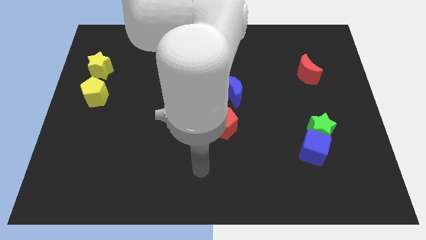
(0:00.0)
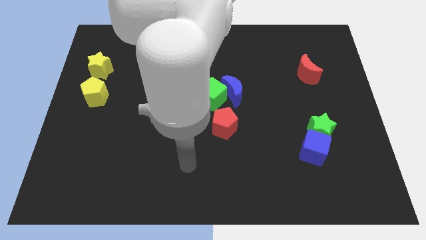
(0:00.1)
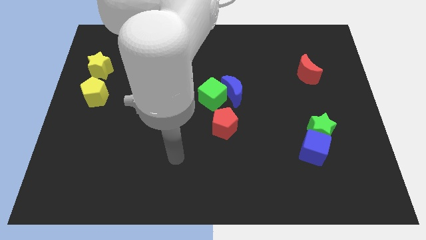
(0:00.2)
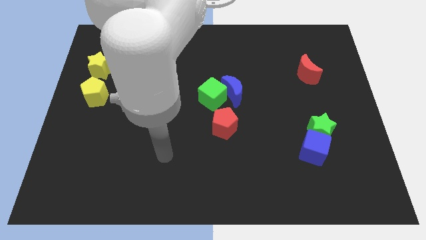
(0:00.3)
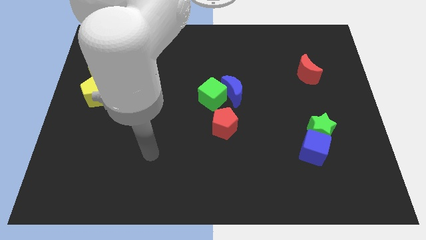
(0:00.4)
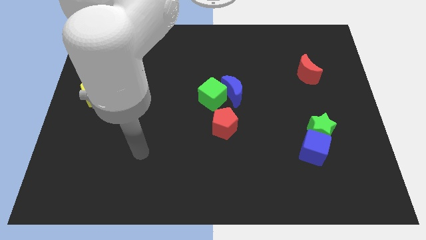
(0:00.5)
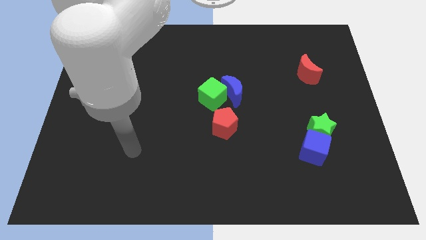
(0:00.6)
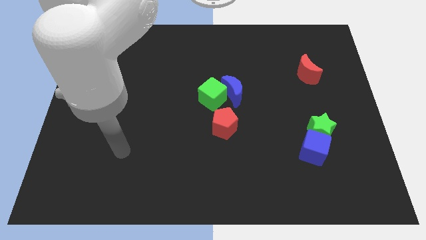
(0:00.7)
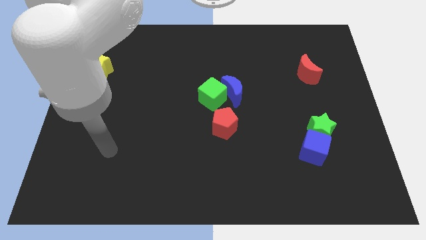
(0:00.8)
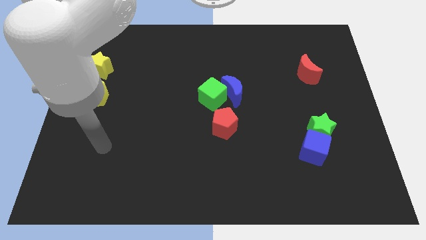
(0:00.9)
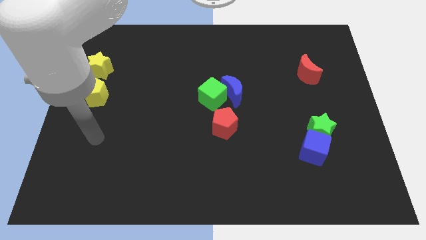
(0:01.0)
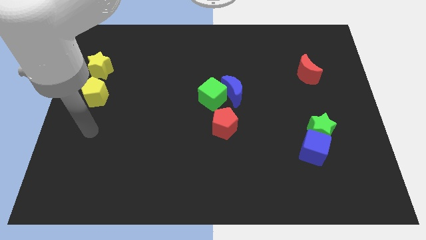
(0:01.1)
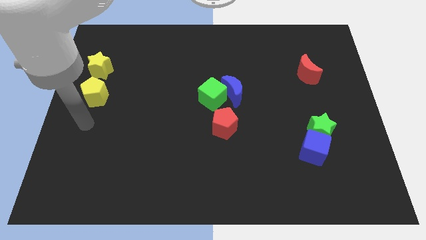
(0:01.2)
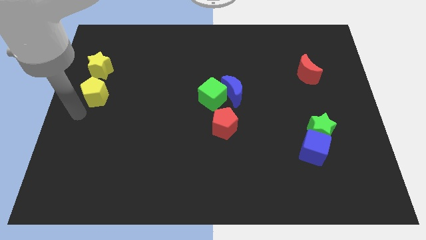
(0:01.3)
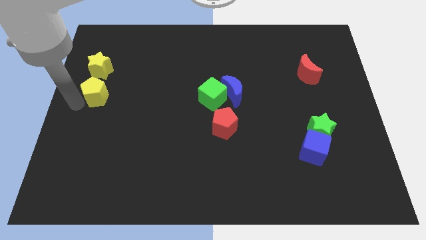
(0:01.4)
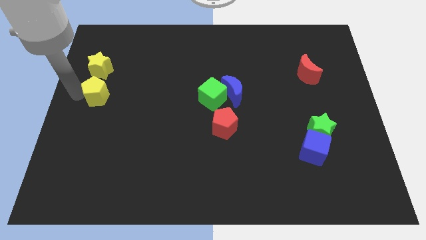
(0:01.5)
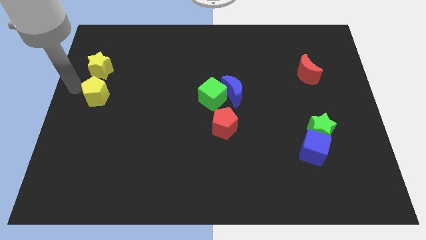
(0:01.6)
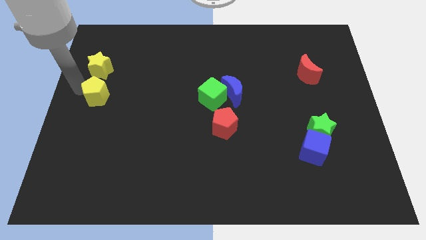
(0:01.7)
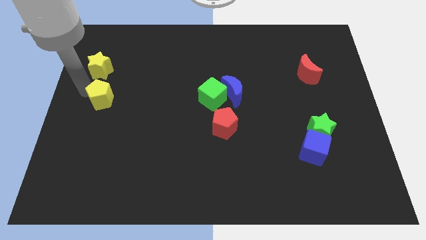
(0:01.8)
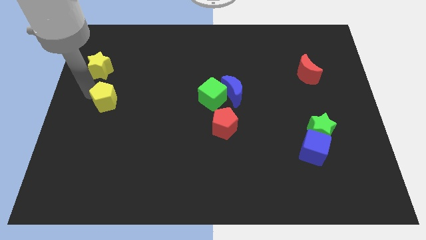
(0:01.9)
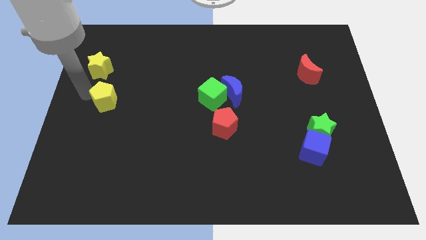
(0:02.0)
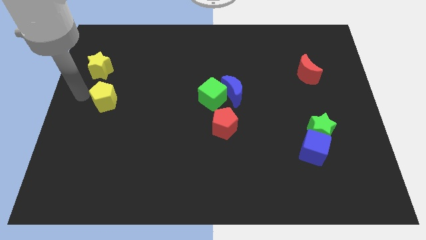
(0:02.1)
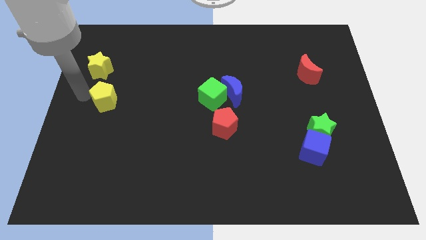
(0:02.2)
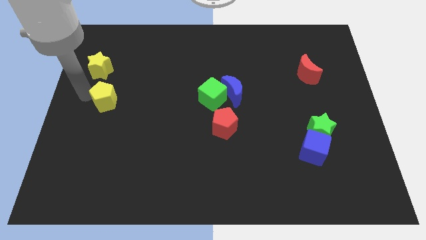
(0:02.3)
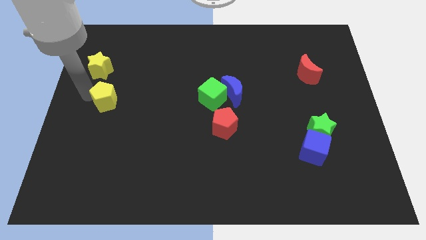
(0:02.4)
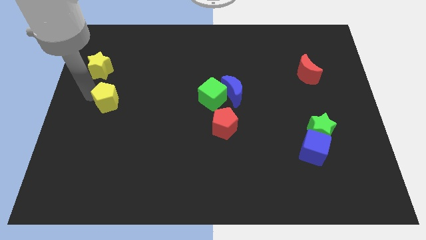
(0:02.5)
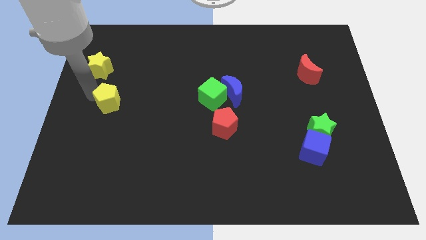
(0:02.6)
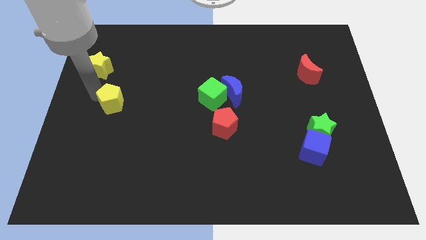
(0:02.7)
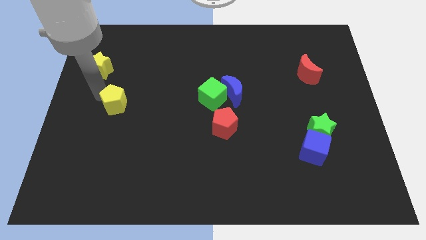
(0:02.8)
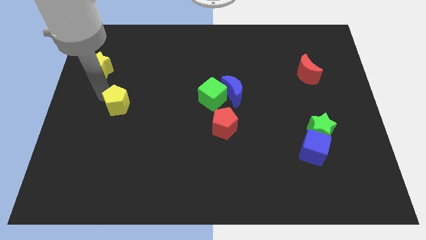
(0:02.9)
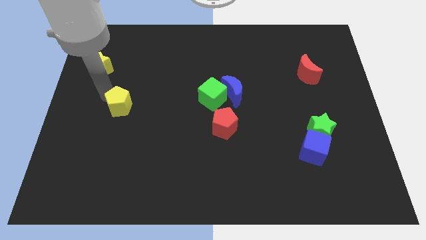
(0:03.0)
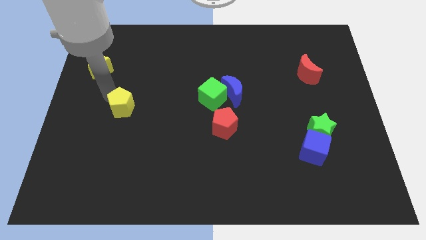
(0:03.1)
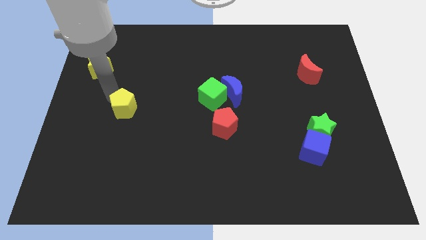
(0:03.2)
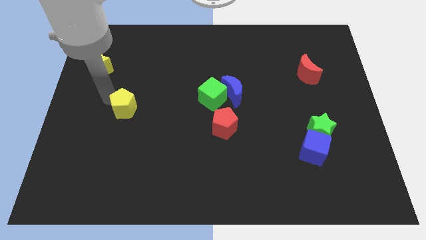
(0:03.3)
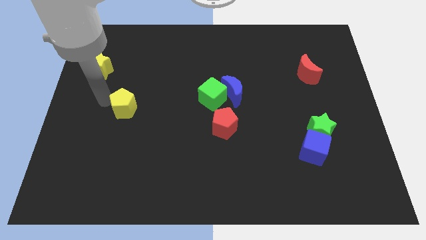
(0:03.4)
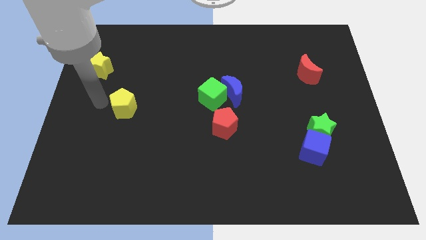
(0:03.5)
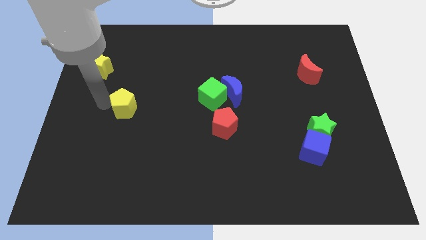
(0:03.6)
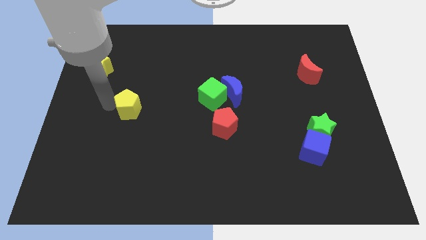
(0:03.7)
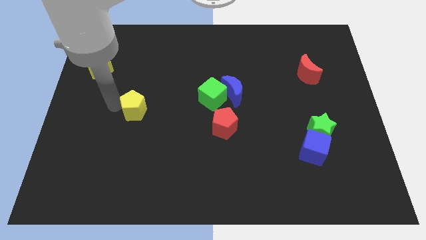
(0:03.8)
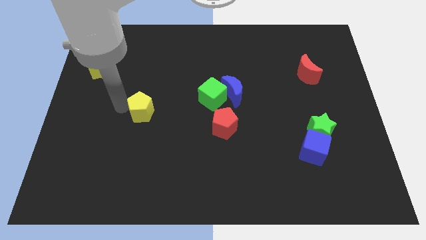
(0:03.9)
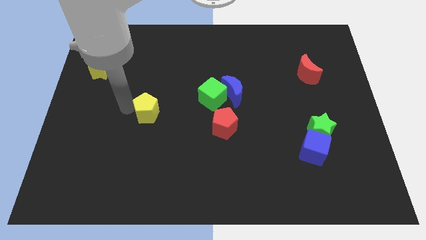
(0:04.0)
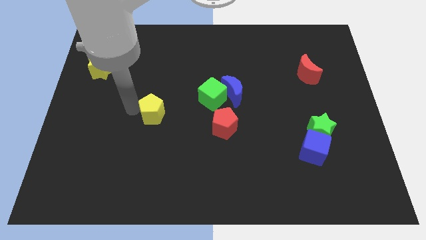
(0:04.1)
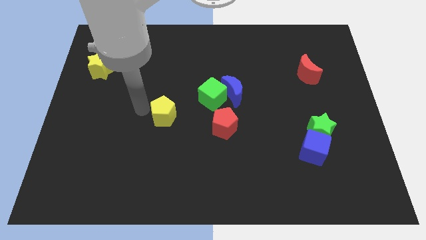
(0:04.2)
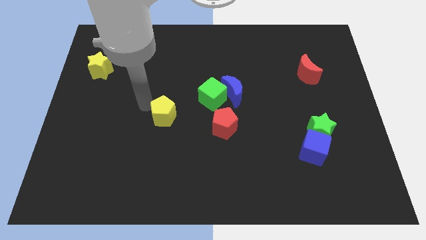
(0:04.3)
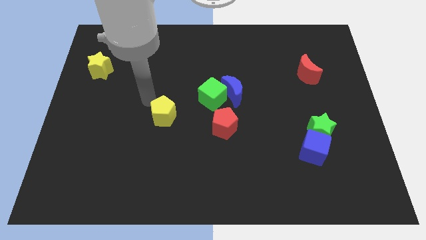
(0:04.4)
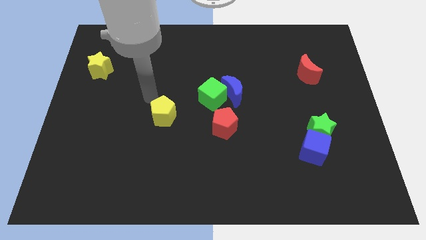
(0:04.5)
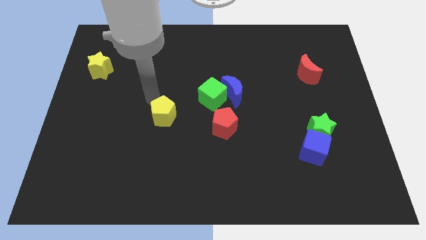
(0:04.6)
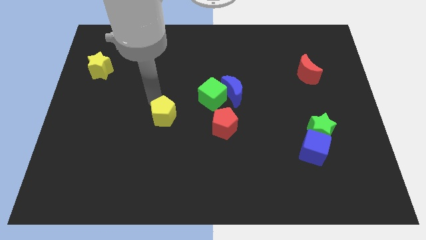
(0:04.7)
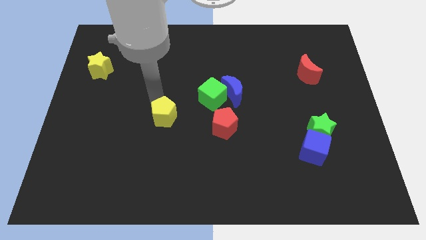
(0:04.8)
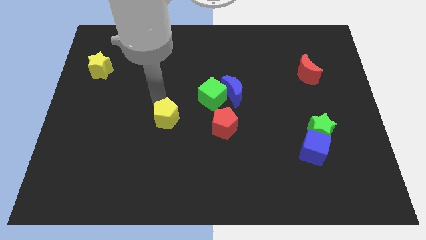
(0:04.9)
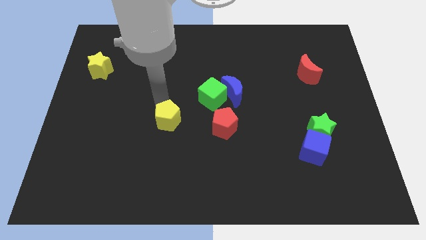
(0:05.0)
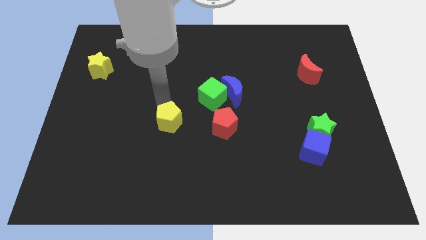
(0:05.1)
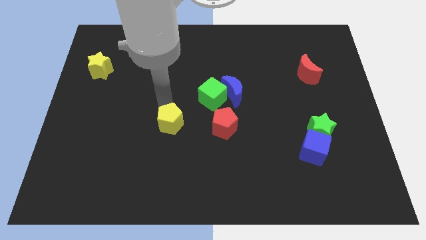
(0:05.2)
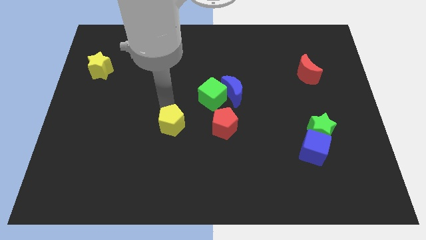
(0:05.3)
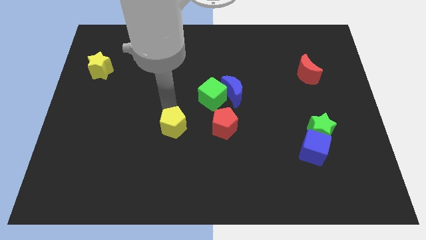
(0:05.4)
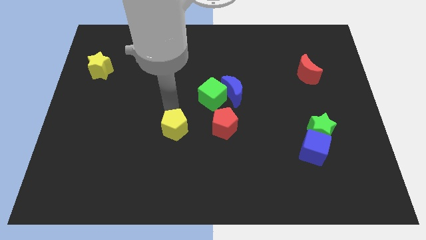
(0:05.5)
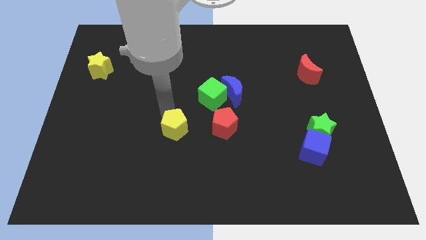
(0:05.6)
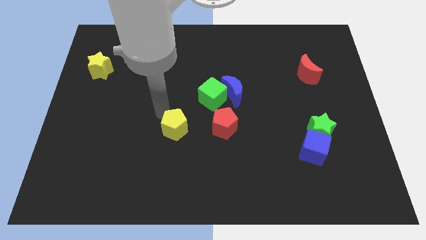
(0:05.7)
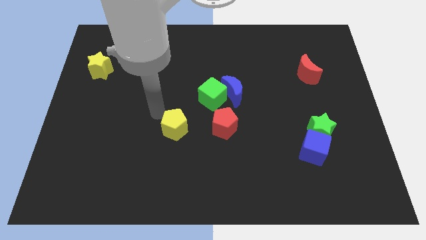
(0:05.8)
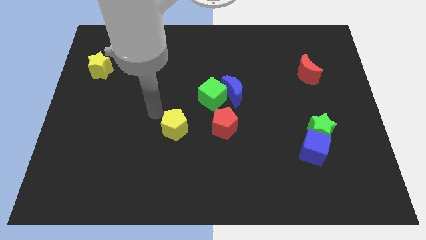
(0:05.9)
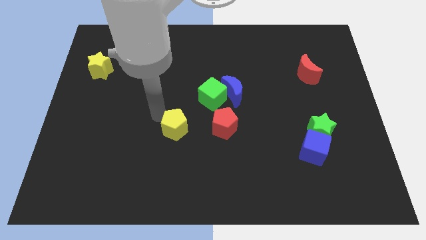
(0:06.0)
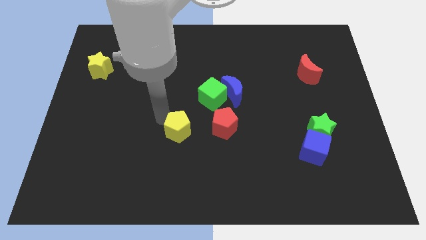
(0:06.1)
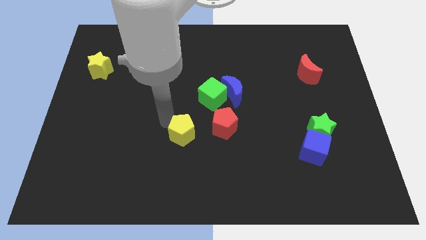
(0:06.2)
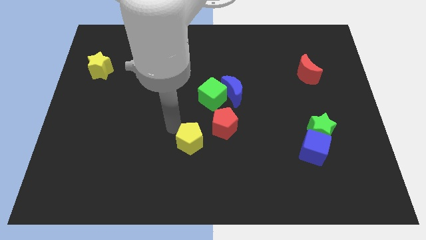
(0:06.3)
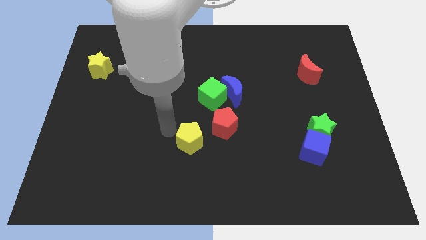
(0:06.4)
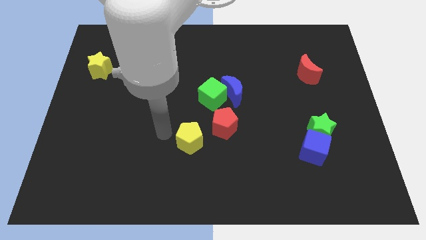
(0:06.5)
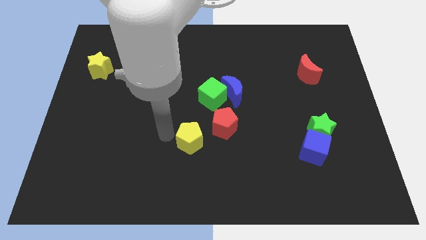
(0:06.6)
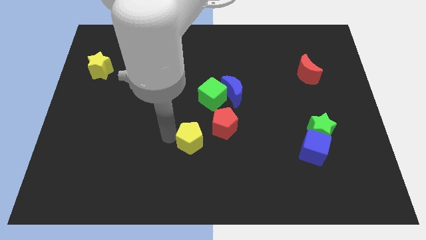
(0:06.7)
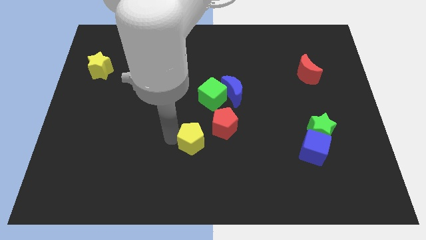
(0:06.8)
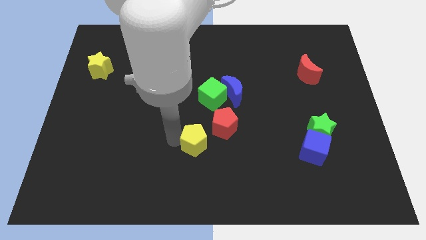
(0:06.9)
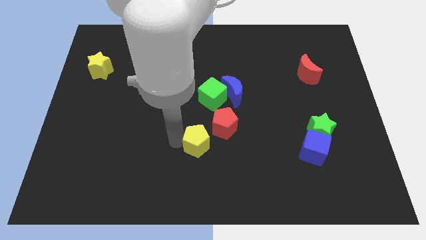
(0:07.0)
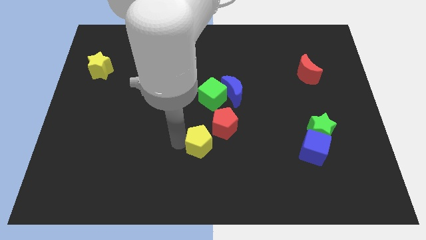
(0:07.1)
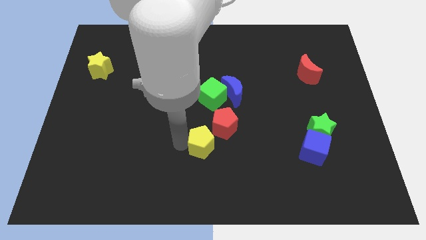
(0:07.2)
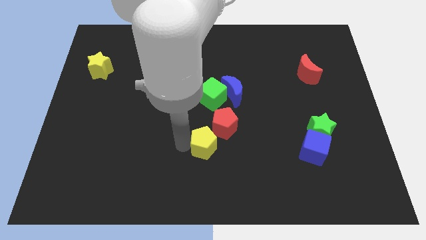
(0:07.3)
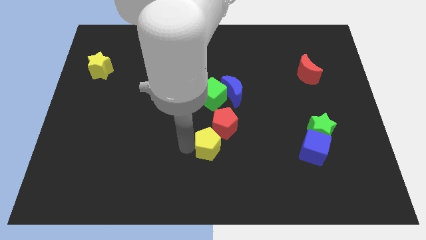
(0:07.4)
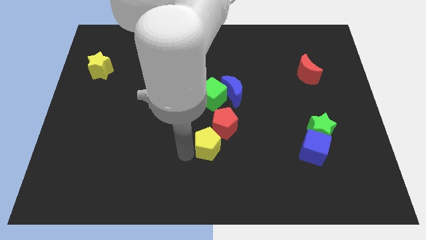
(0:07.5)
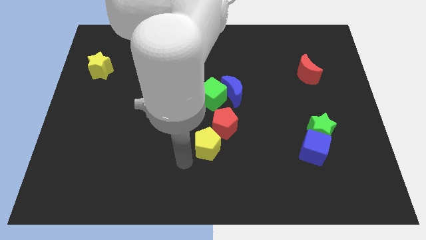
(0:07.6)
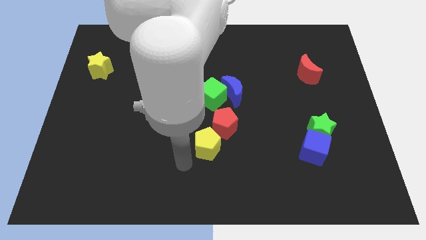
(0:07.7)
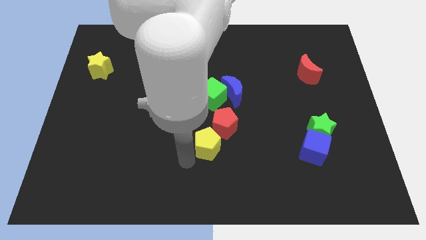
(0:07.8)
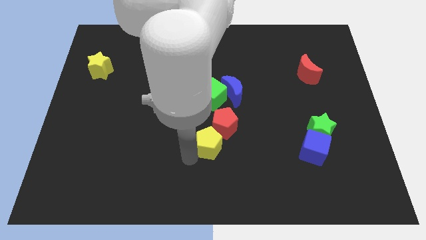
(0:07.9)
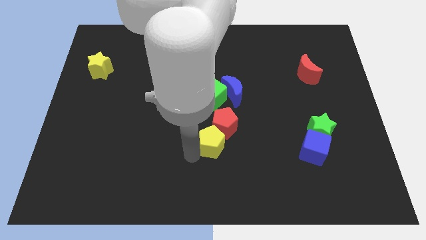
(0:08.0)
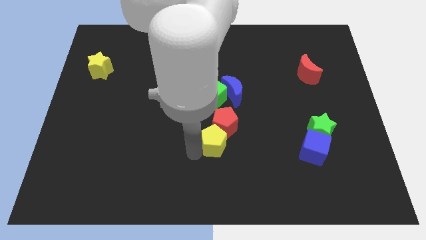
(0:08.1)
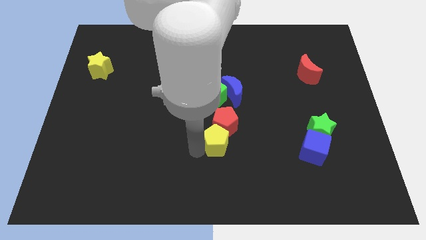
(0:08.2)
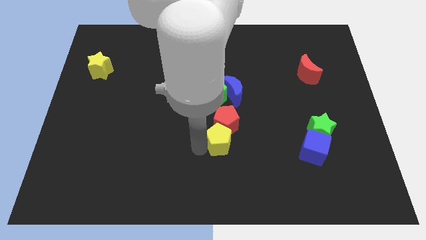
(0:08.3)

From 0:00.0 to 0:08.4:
push the yellow pentagon below the blue moon
